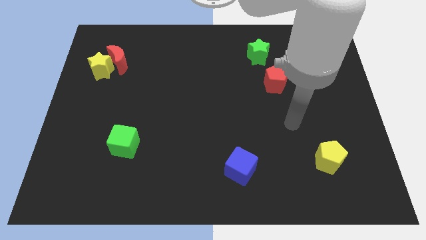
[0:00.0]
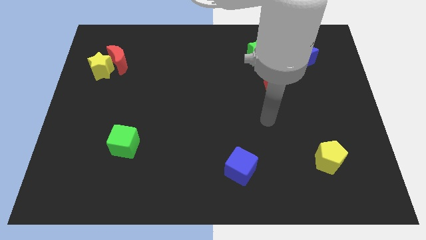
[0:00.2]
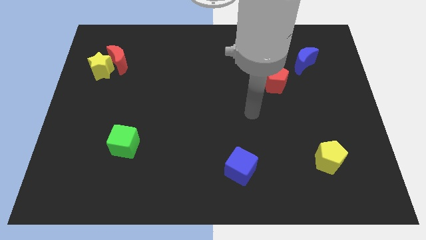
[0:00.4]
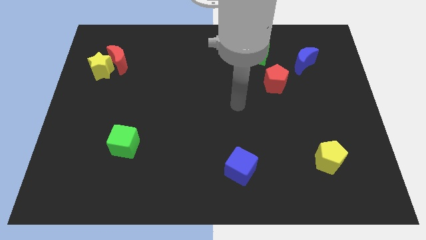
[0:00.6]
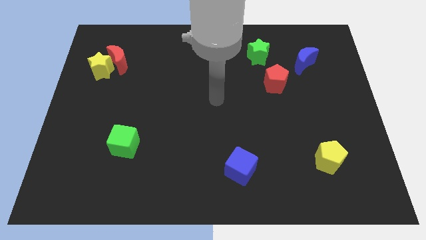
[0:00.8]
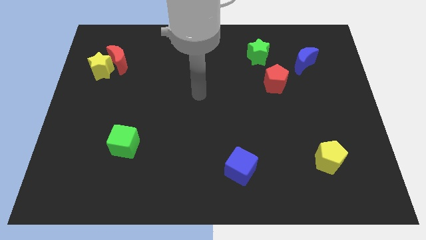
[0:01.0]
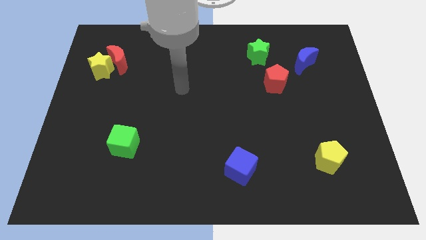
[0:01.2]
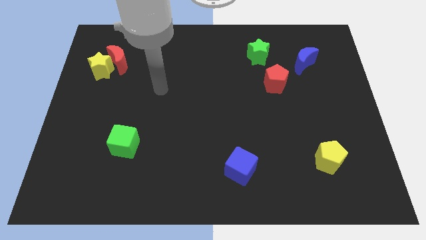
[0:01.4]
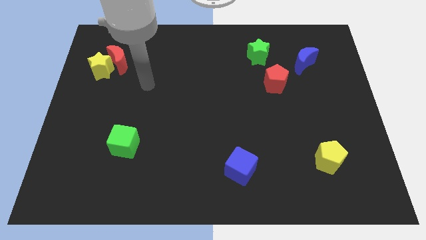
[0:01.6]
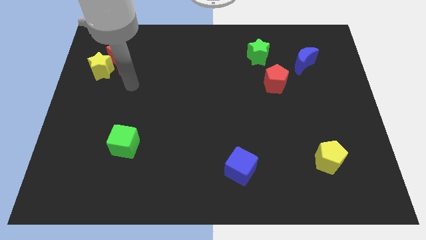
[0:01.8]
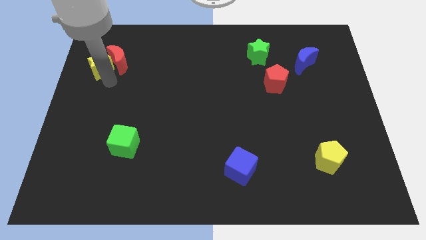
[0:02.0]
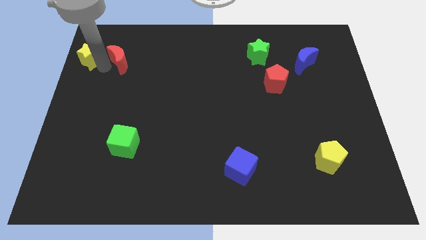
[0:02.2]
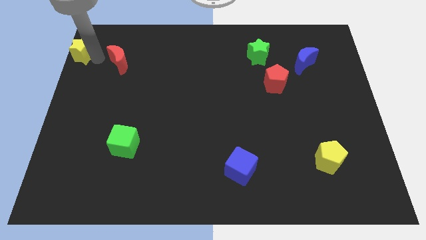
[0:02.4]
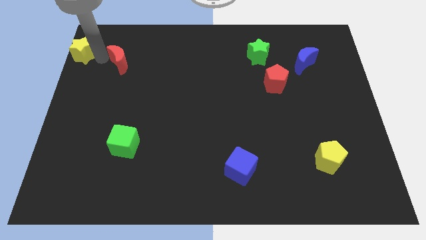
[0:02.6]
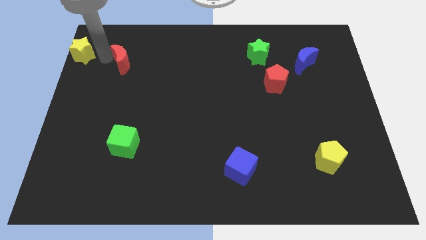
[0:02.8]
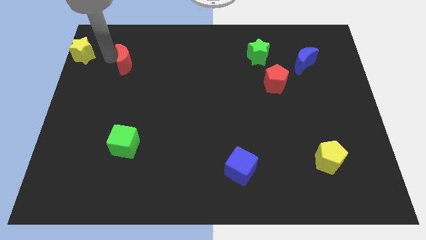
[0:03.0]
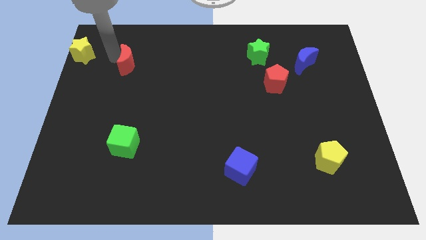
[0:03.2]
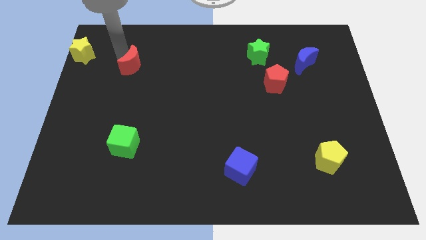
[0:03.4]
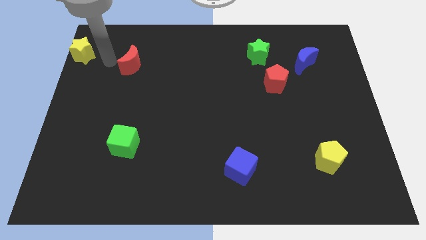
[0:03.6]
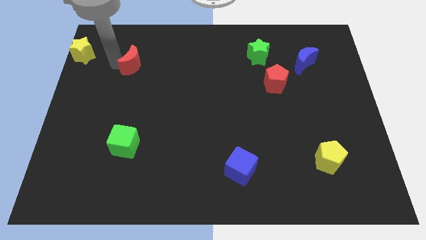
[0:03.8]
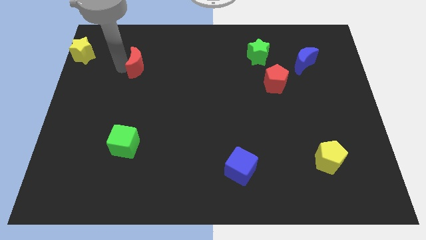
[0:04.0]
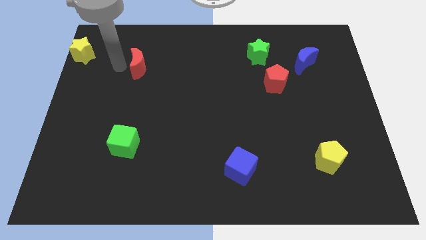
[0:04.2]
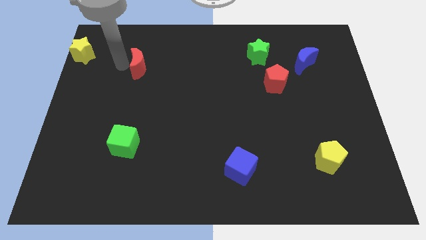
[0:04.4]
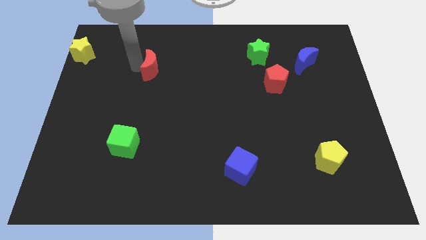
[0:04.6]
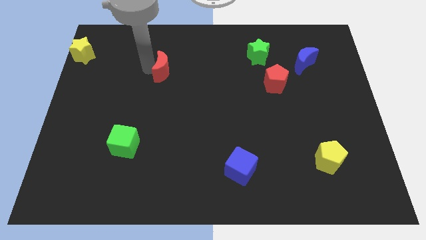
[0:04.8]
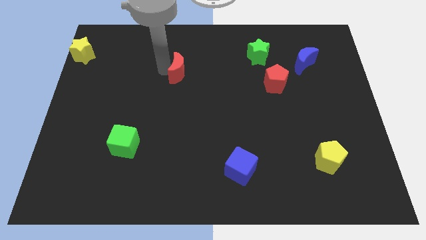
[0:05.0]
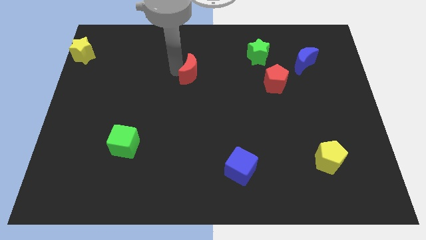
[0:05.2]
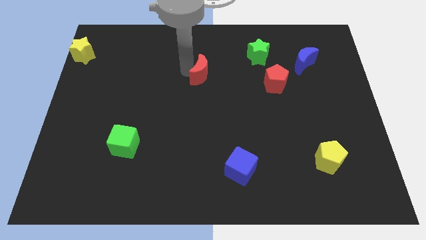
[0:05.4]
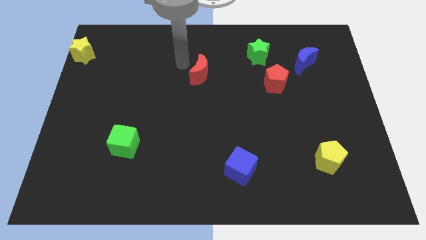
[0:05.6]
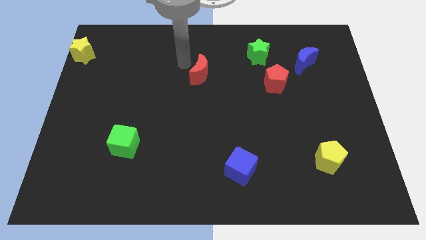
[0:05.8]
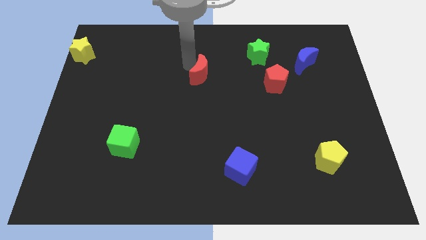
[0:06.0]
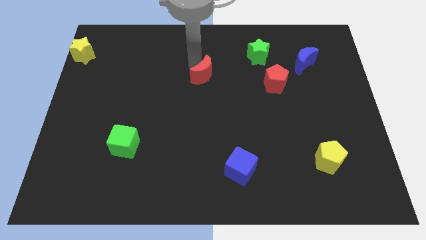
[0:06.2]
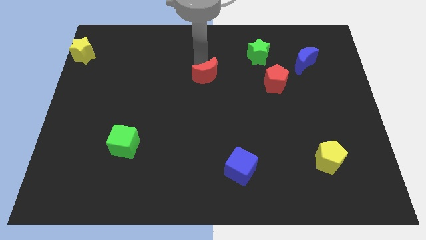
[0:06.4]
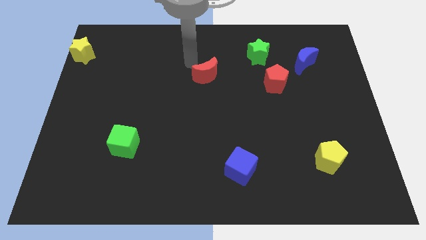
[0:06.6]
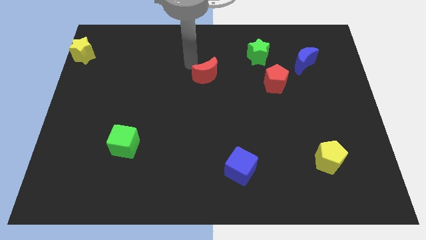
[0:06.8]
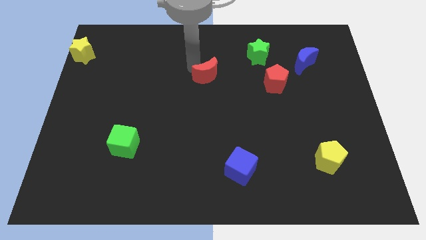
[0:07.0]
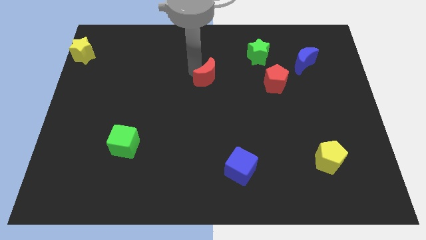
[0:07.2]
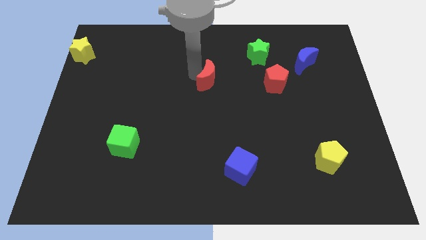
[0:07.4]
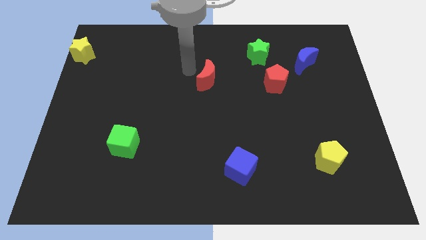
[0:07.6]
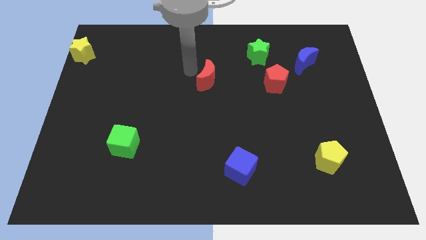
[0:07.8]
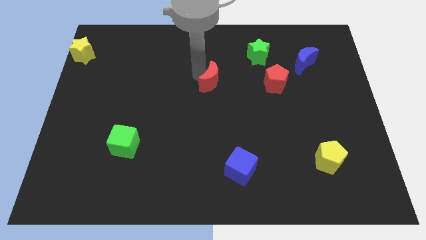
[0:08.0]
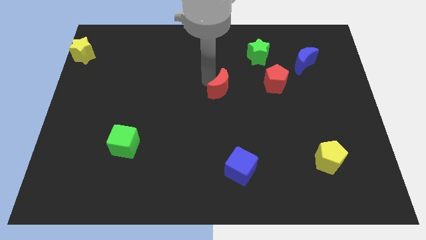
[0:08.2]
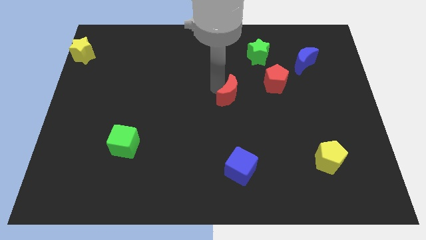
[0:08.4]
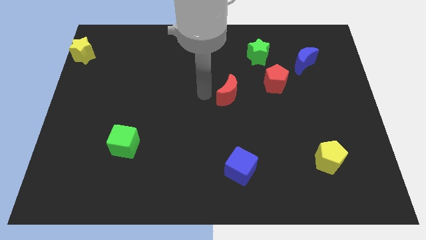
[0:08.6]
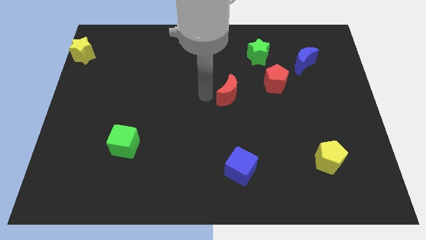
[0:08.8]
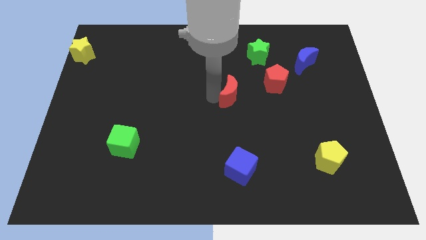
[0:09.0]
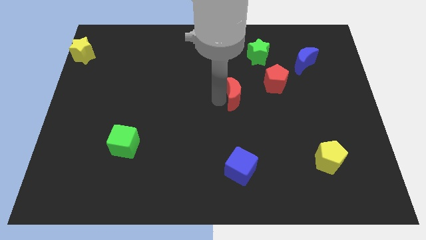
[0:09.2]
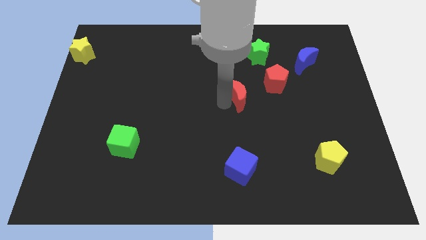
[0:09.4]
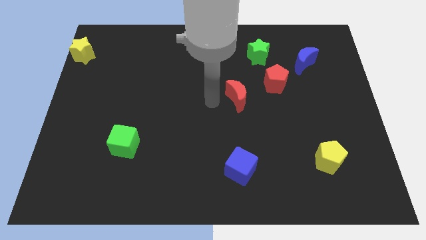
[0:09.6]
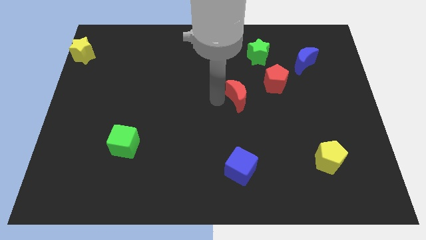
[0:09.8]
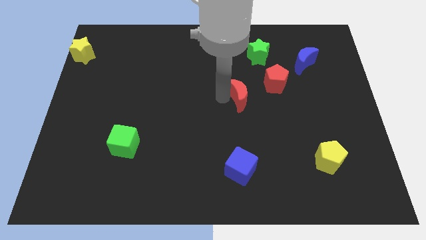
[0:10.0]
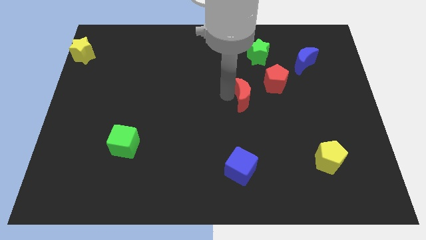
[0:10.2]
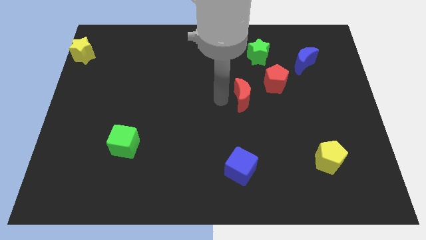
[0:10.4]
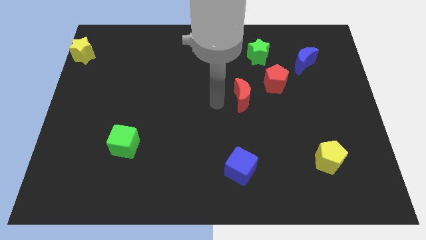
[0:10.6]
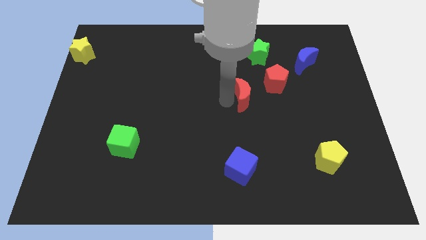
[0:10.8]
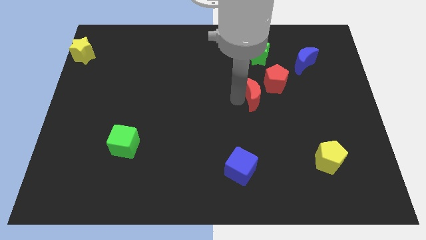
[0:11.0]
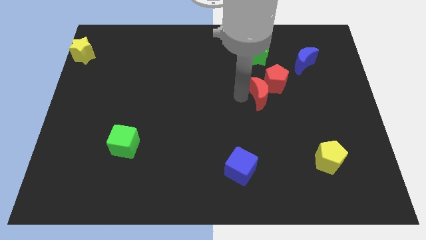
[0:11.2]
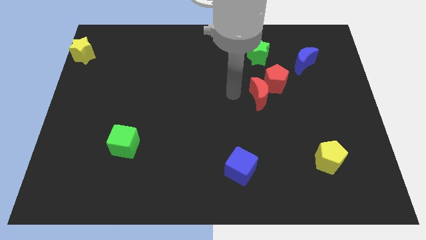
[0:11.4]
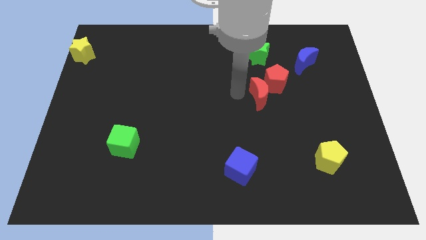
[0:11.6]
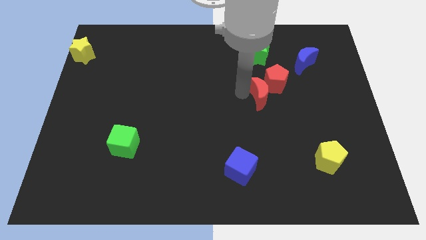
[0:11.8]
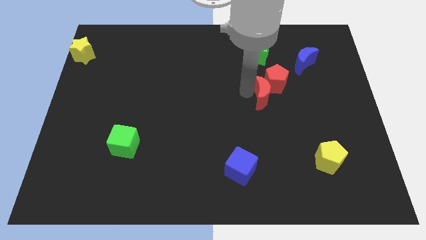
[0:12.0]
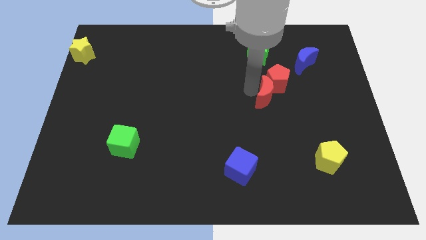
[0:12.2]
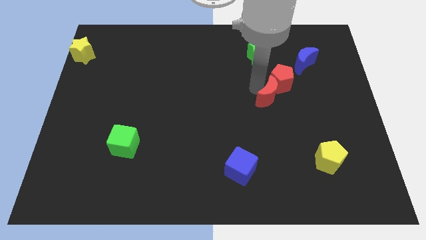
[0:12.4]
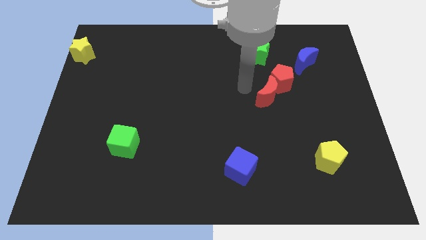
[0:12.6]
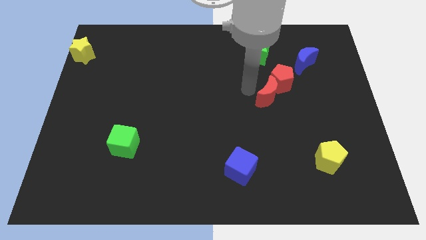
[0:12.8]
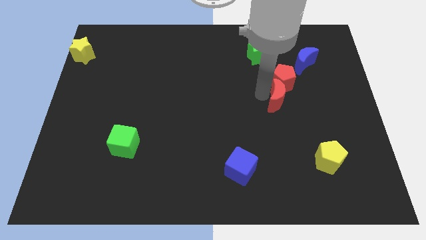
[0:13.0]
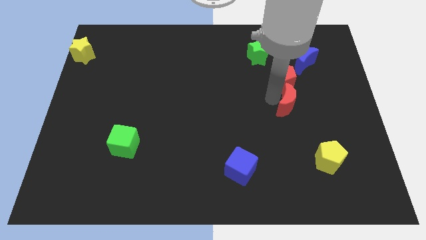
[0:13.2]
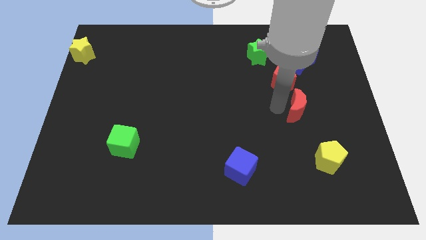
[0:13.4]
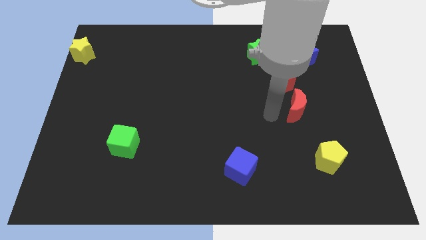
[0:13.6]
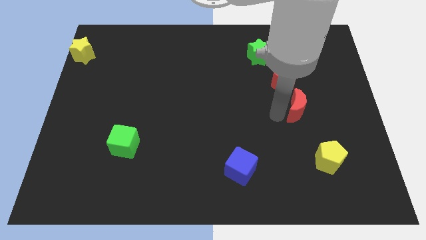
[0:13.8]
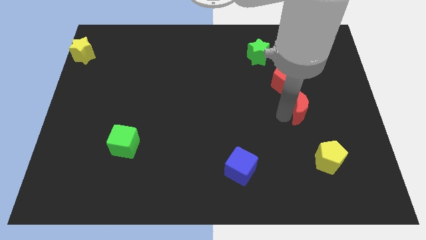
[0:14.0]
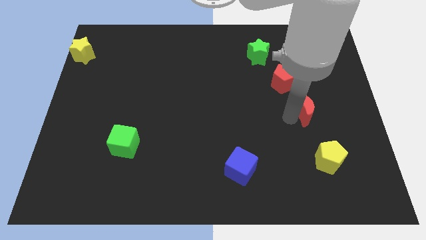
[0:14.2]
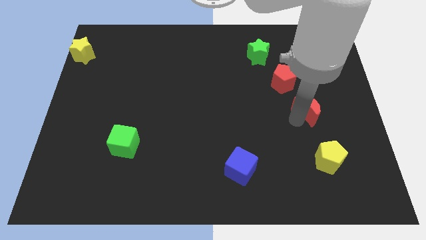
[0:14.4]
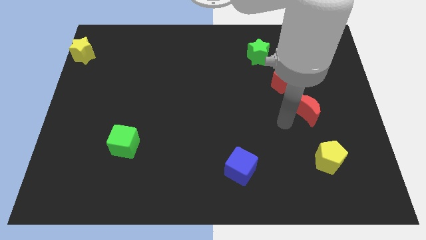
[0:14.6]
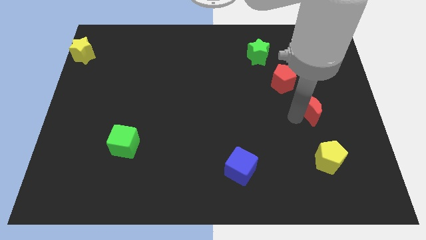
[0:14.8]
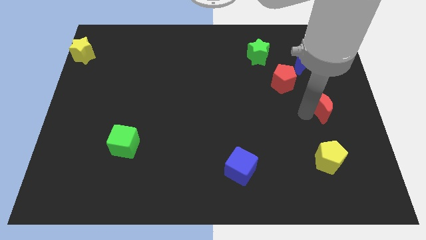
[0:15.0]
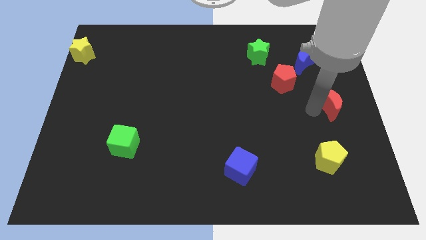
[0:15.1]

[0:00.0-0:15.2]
put the red moon to the center right
